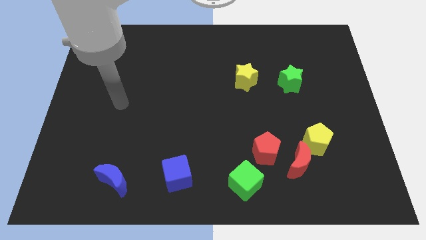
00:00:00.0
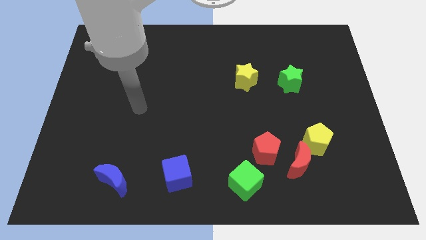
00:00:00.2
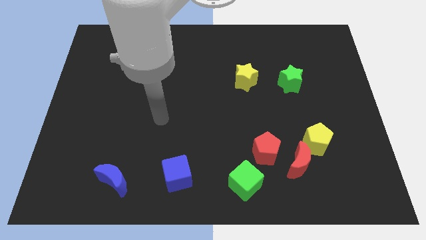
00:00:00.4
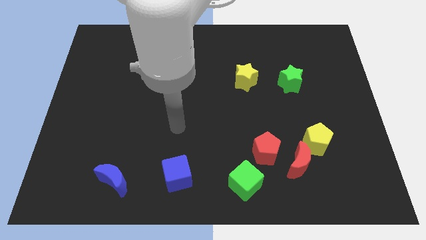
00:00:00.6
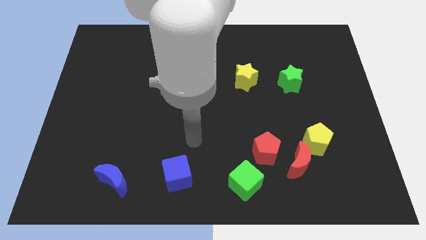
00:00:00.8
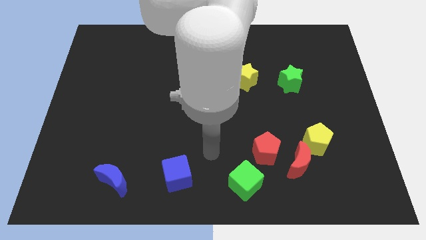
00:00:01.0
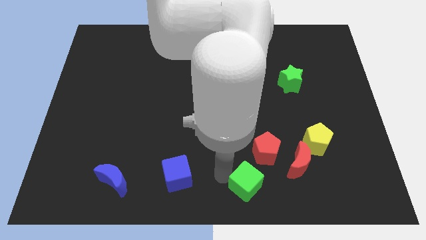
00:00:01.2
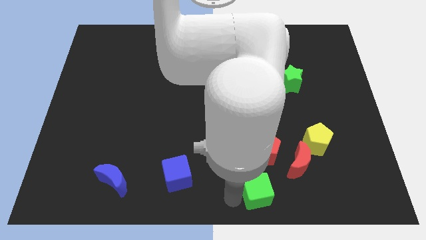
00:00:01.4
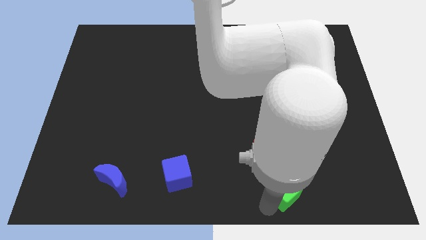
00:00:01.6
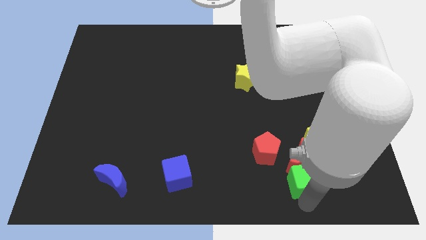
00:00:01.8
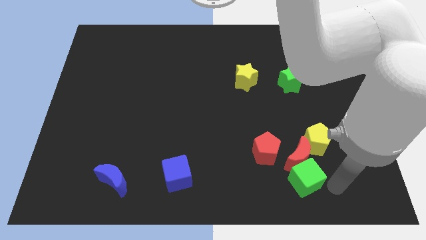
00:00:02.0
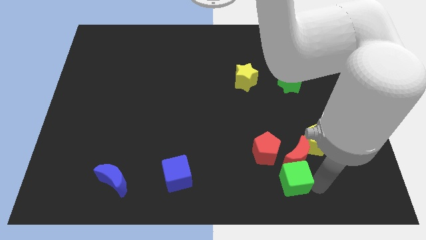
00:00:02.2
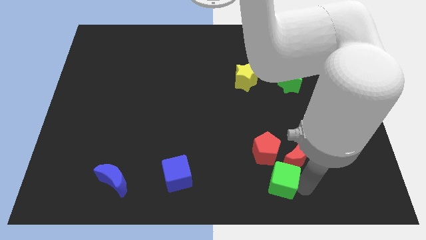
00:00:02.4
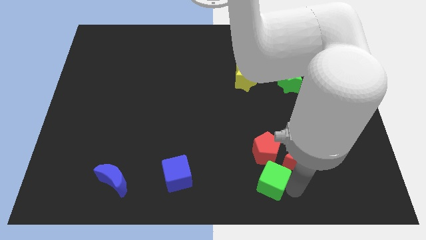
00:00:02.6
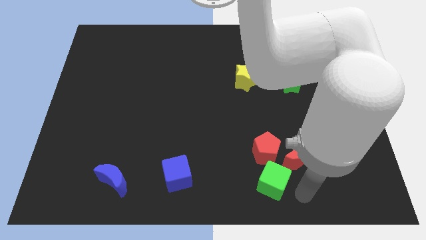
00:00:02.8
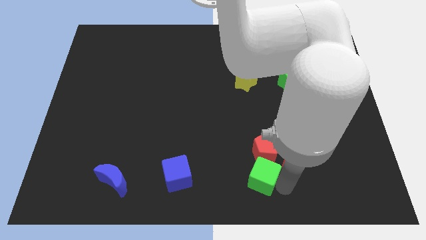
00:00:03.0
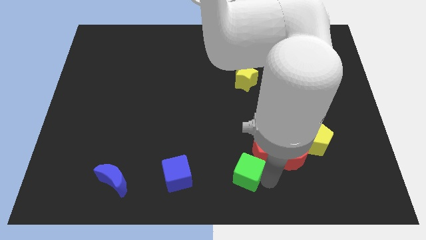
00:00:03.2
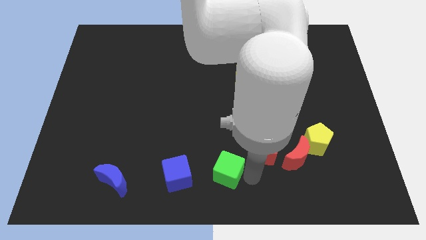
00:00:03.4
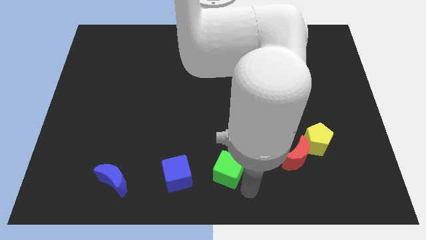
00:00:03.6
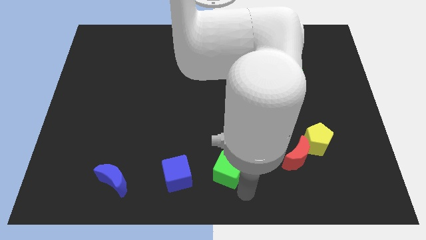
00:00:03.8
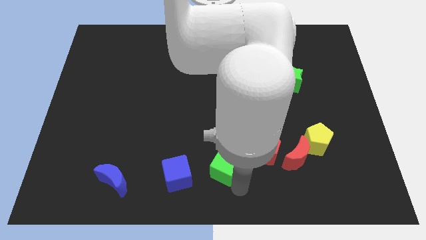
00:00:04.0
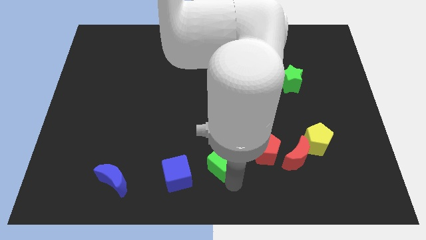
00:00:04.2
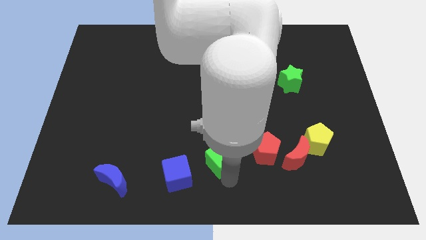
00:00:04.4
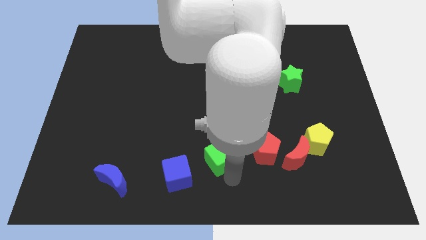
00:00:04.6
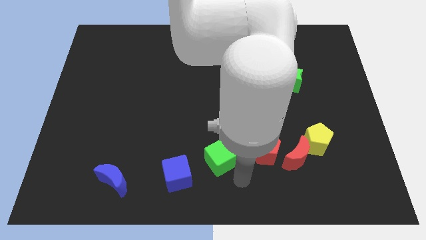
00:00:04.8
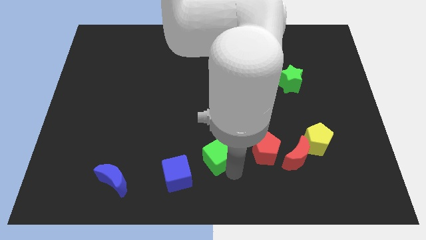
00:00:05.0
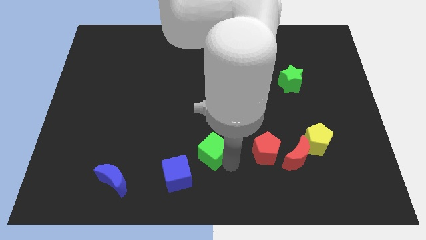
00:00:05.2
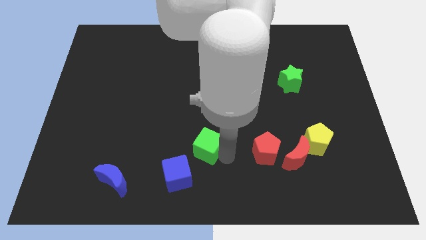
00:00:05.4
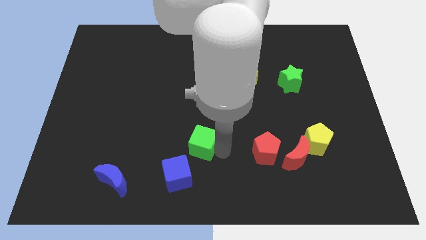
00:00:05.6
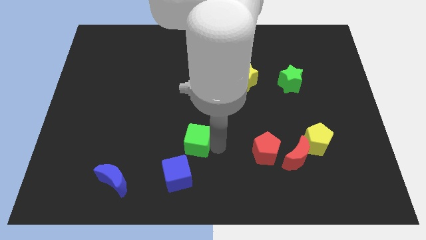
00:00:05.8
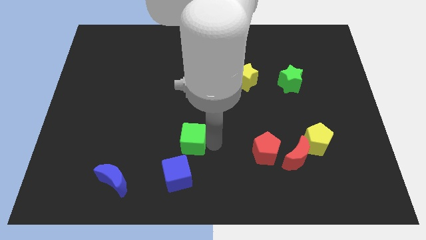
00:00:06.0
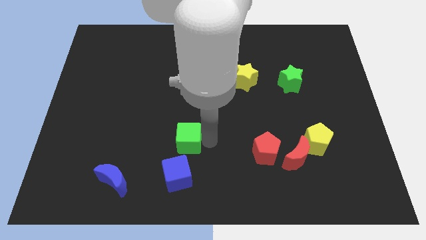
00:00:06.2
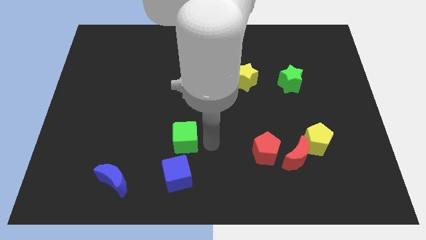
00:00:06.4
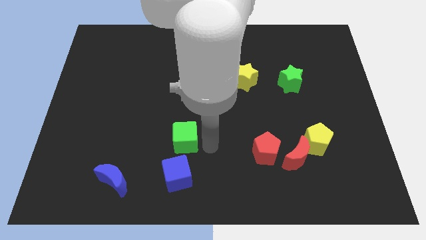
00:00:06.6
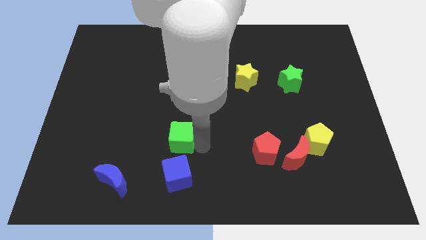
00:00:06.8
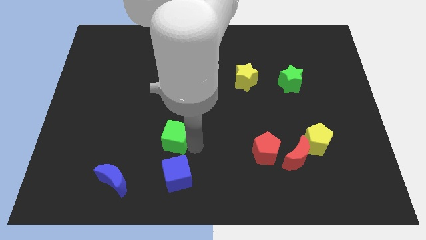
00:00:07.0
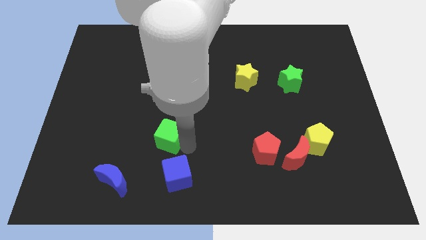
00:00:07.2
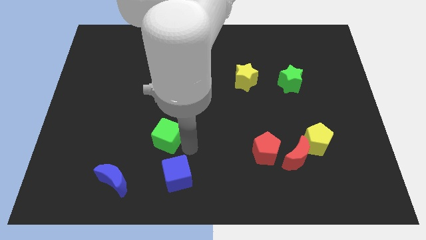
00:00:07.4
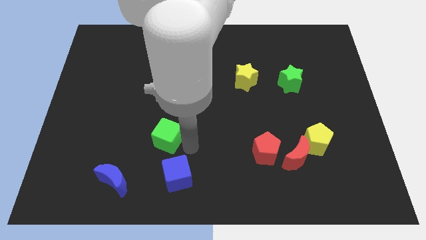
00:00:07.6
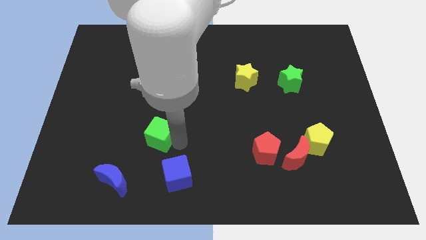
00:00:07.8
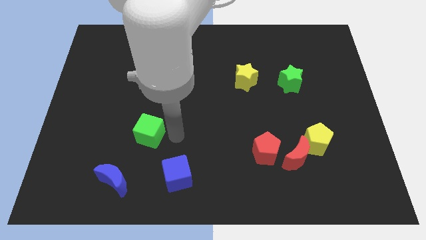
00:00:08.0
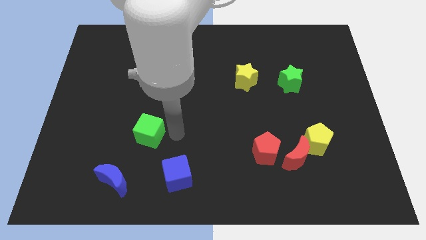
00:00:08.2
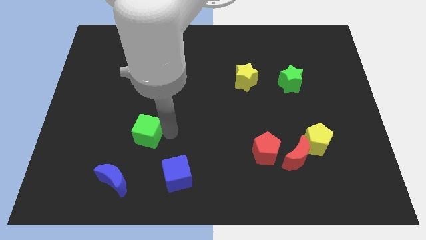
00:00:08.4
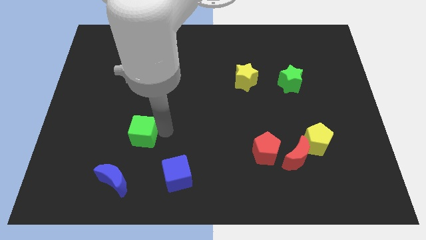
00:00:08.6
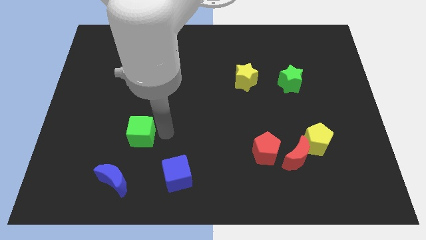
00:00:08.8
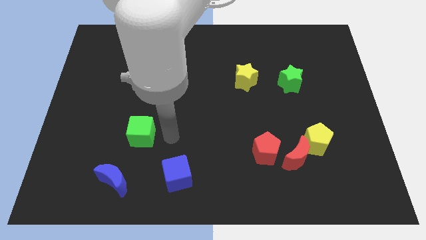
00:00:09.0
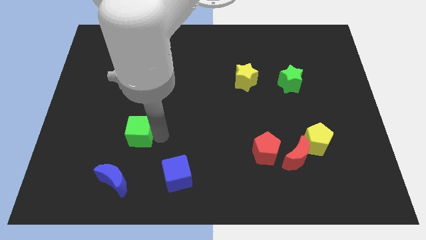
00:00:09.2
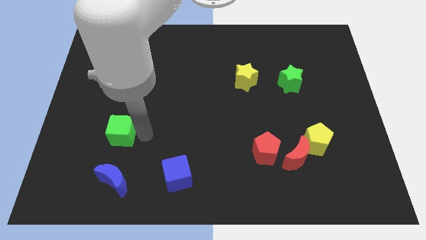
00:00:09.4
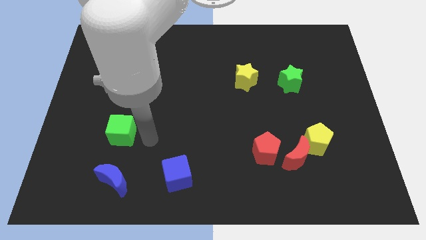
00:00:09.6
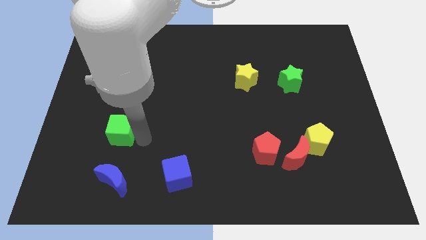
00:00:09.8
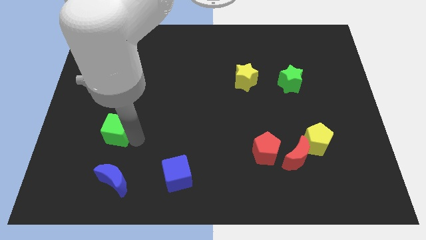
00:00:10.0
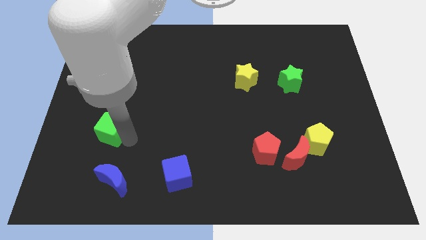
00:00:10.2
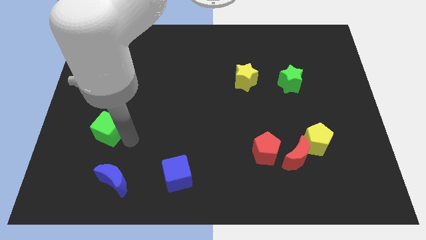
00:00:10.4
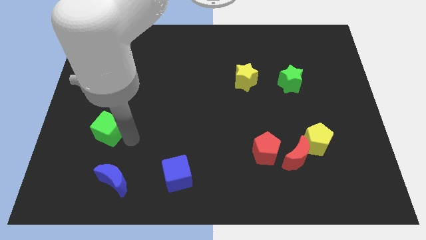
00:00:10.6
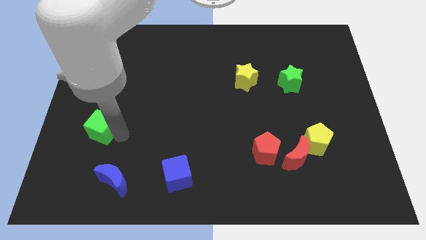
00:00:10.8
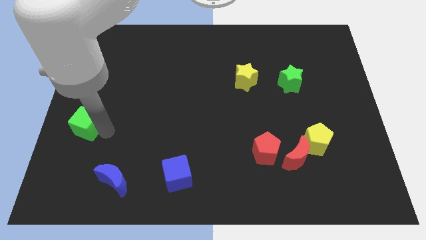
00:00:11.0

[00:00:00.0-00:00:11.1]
push the green cube to the left side

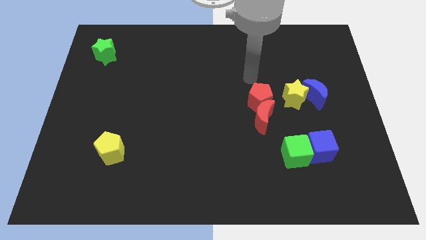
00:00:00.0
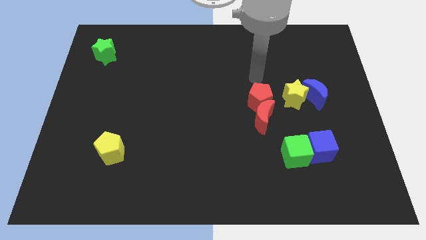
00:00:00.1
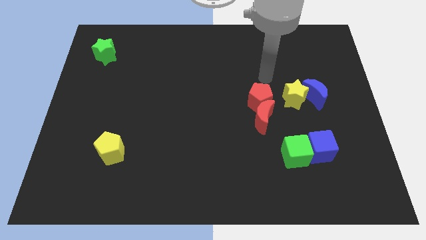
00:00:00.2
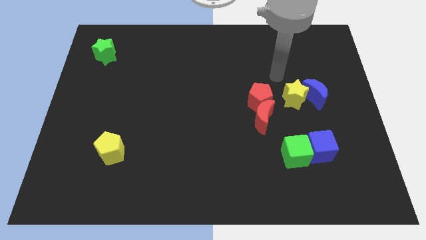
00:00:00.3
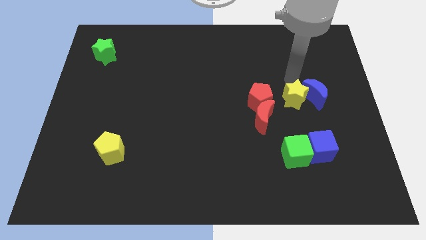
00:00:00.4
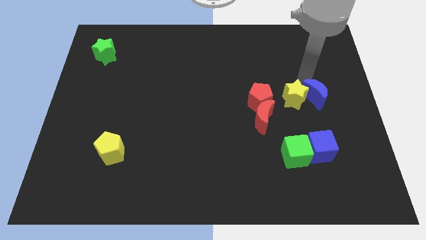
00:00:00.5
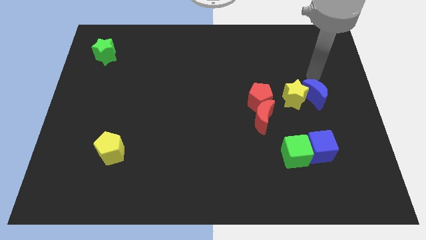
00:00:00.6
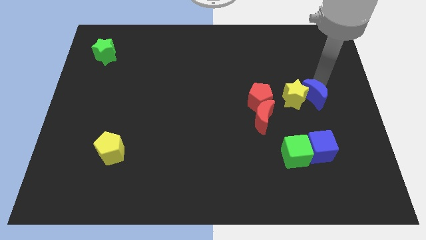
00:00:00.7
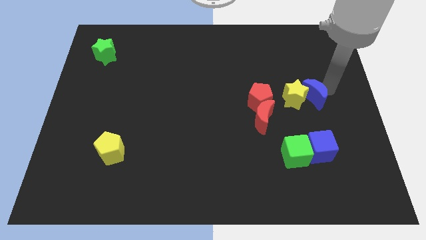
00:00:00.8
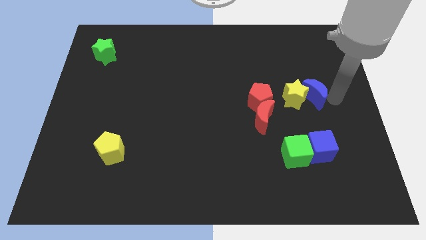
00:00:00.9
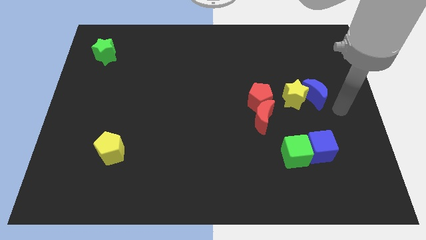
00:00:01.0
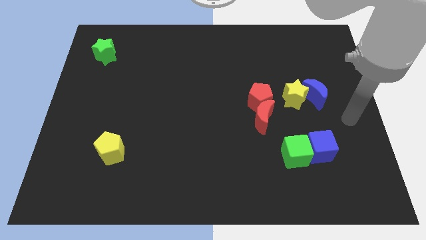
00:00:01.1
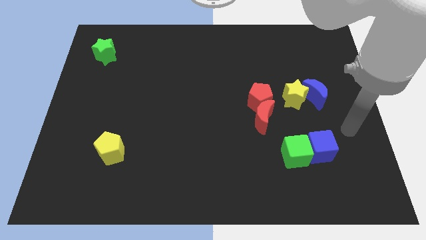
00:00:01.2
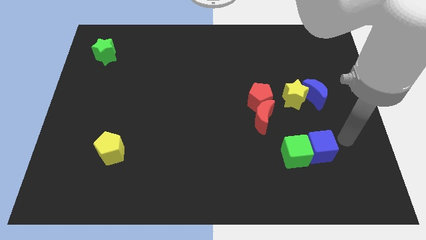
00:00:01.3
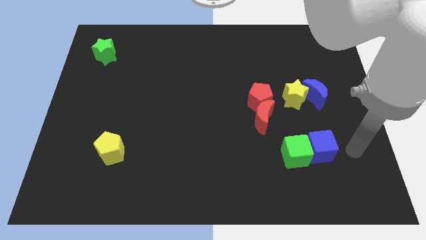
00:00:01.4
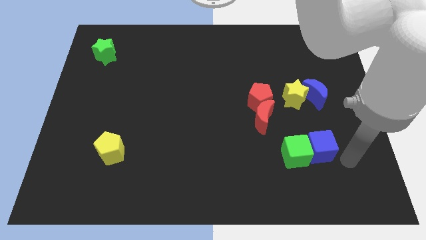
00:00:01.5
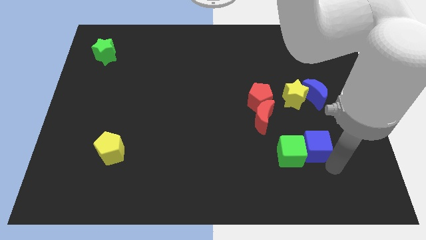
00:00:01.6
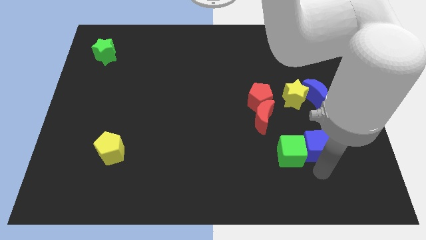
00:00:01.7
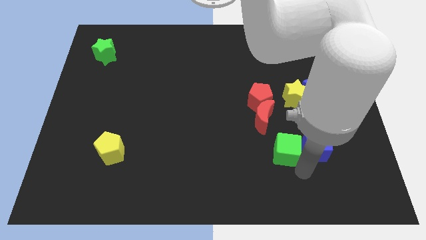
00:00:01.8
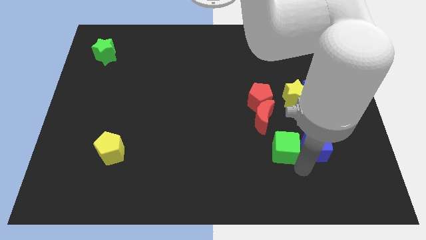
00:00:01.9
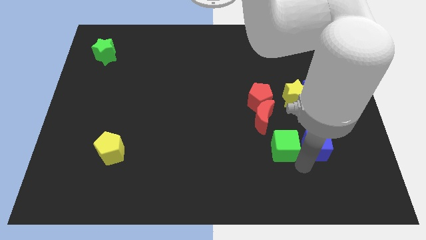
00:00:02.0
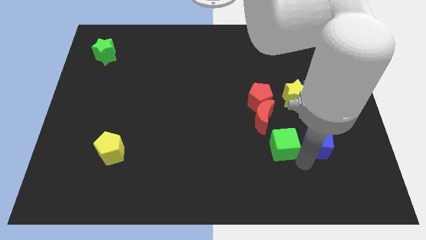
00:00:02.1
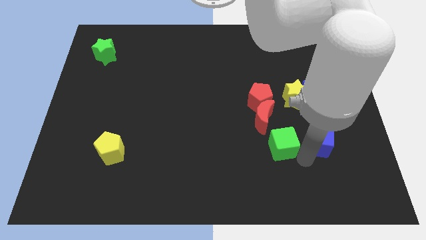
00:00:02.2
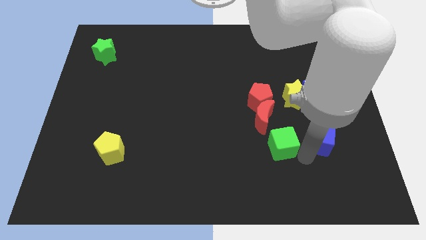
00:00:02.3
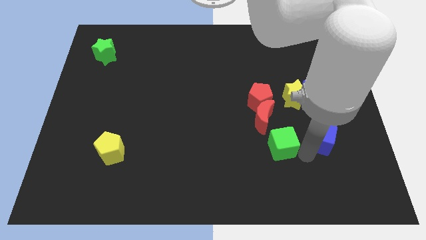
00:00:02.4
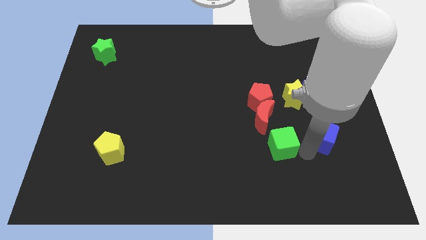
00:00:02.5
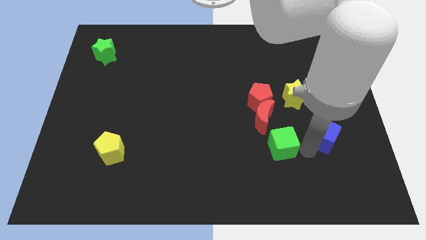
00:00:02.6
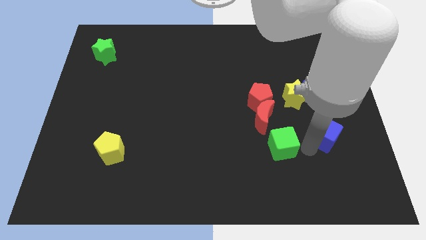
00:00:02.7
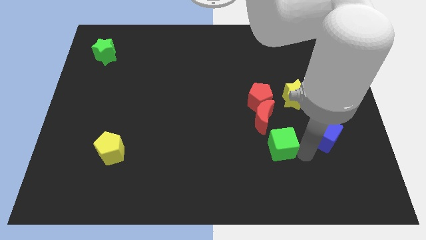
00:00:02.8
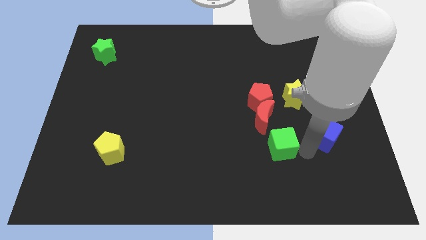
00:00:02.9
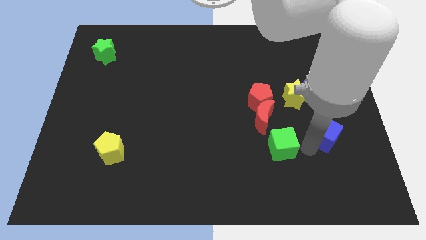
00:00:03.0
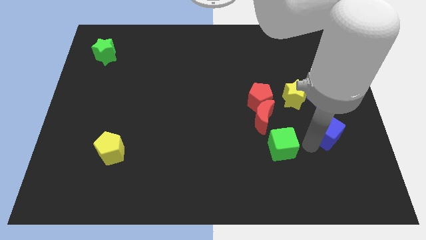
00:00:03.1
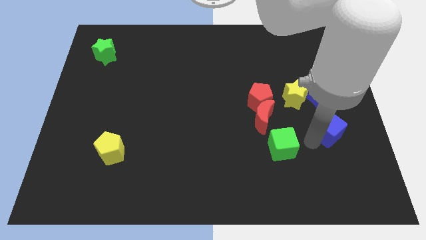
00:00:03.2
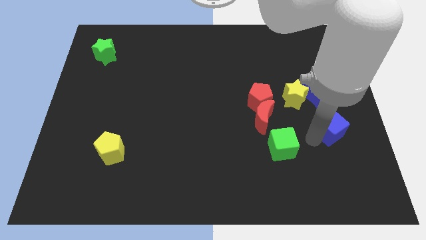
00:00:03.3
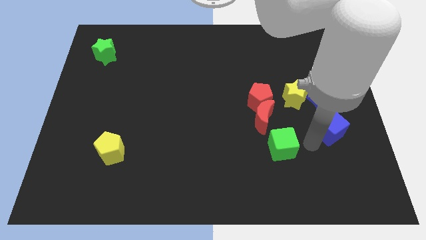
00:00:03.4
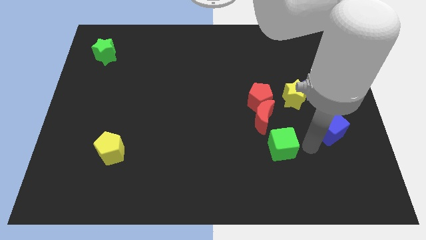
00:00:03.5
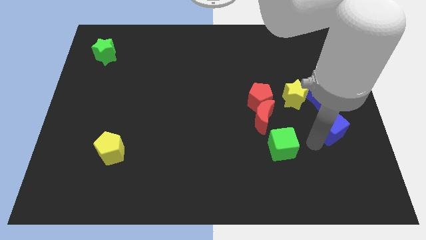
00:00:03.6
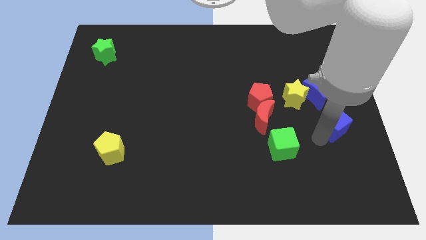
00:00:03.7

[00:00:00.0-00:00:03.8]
move the blue cube to the center right
